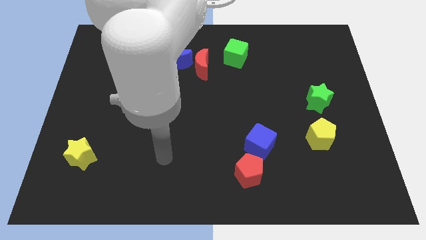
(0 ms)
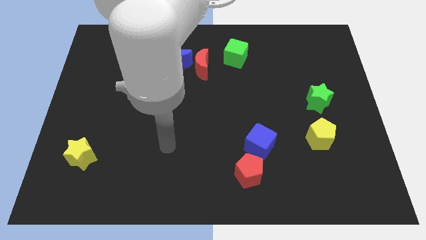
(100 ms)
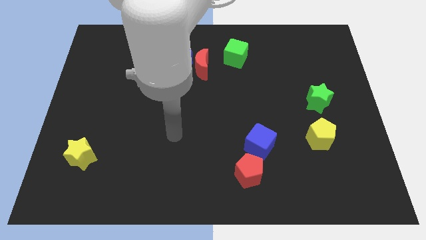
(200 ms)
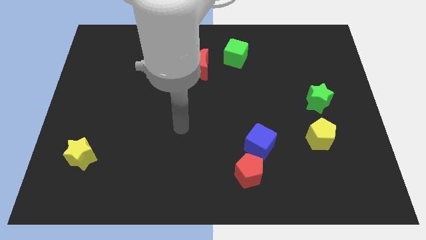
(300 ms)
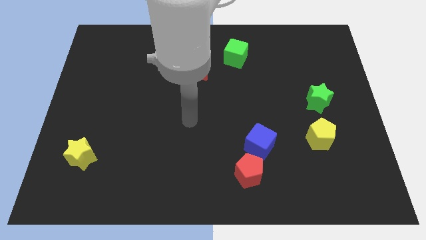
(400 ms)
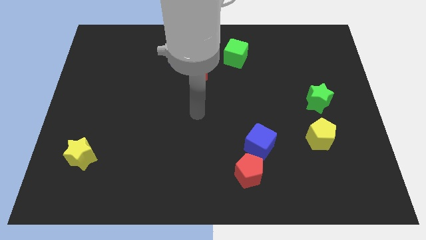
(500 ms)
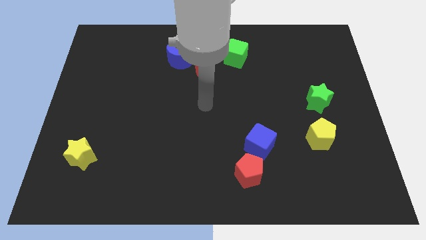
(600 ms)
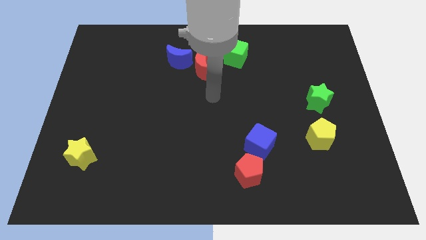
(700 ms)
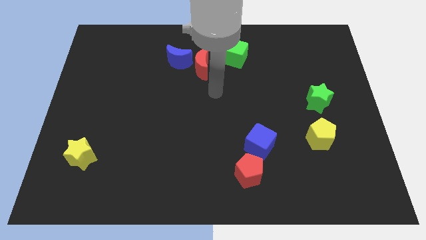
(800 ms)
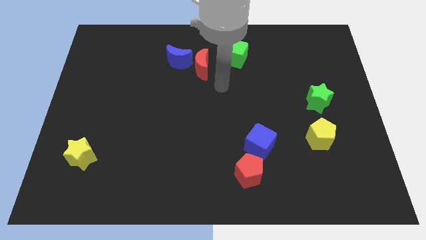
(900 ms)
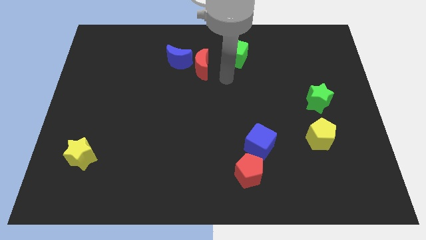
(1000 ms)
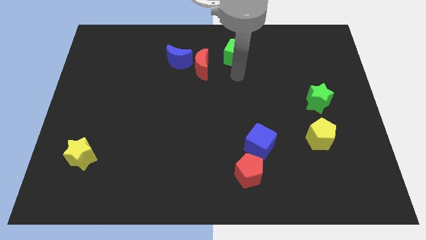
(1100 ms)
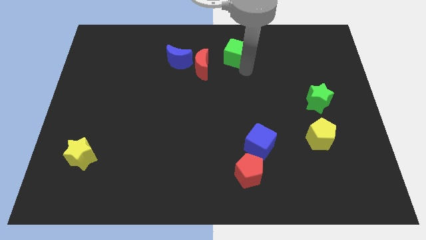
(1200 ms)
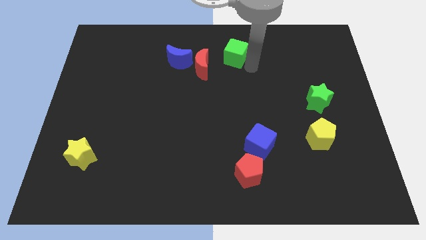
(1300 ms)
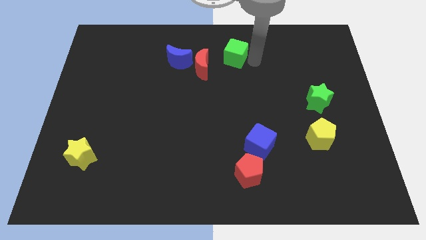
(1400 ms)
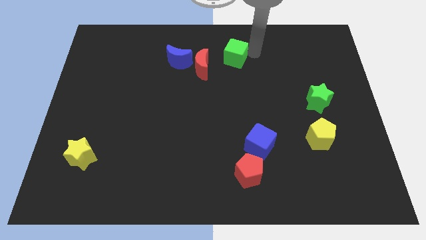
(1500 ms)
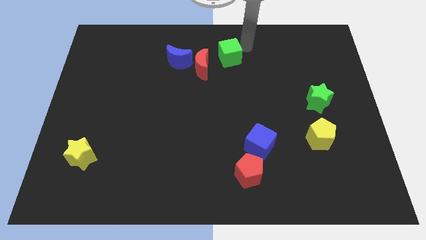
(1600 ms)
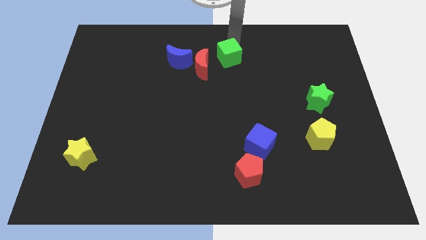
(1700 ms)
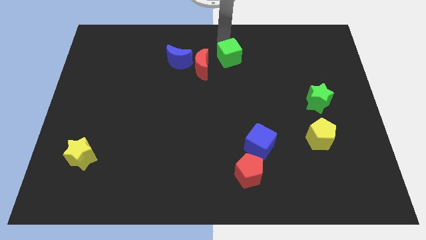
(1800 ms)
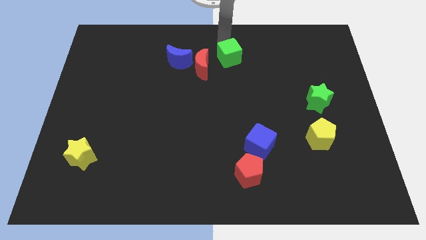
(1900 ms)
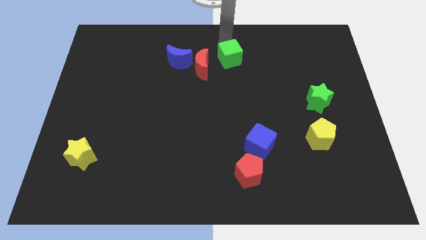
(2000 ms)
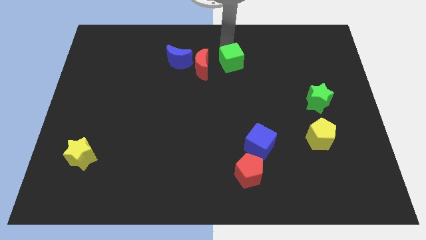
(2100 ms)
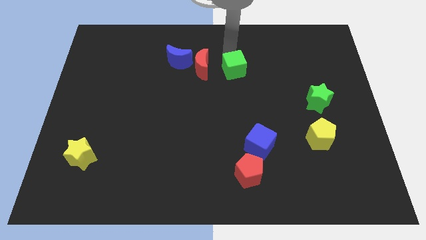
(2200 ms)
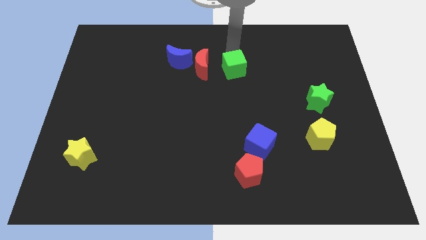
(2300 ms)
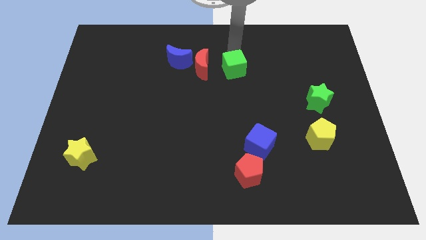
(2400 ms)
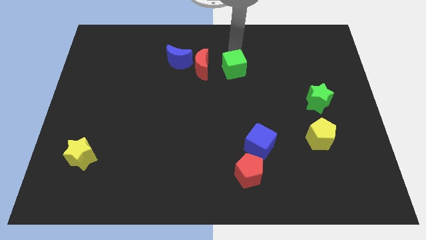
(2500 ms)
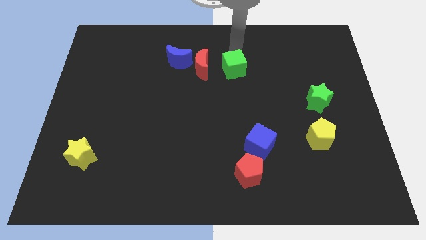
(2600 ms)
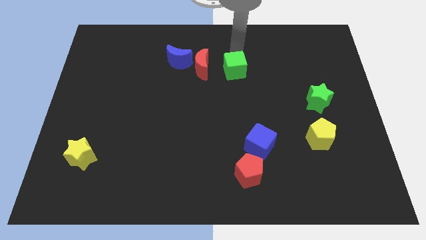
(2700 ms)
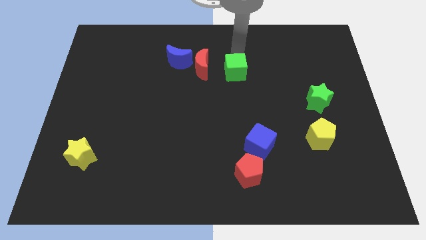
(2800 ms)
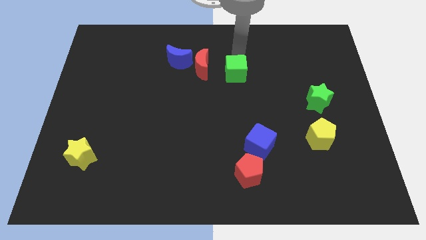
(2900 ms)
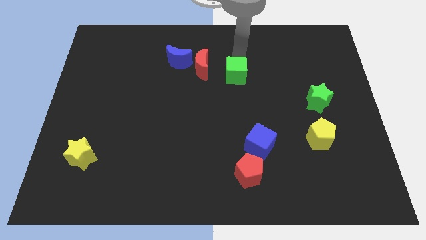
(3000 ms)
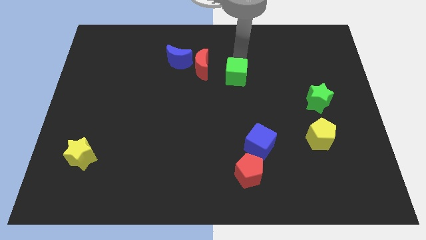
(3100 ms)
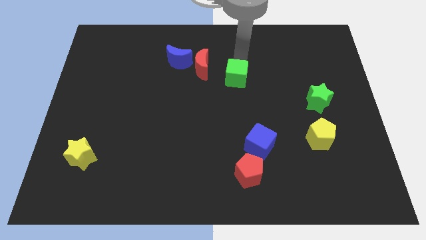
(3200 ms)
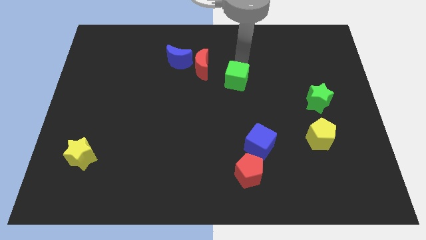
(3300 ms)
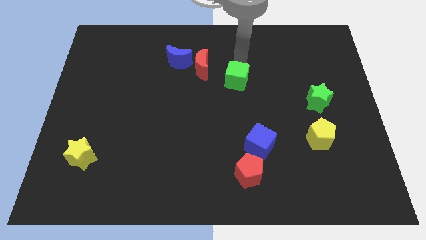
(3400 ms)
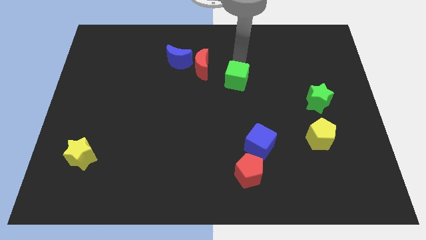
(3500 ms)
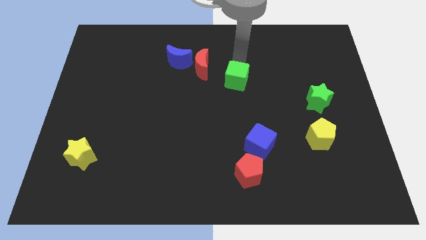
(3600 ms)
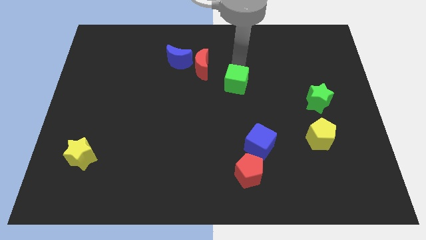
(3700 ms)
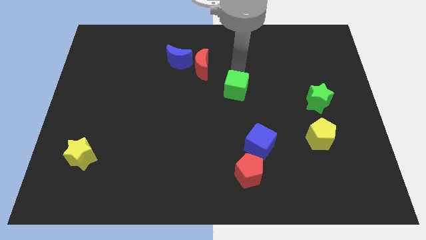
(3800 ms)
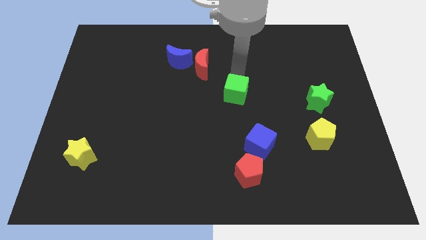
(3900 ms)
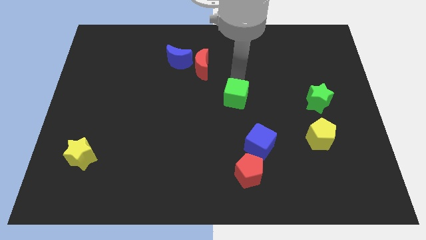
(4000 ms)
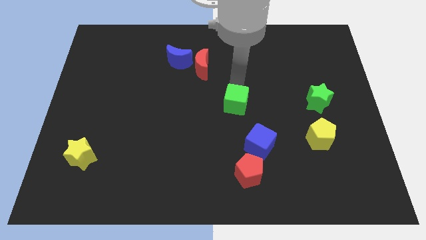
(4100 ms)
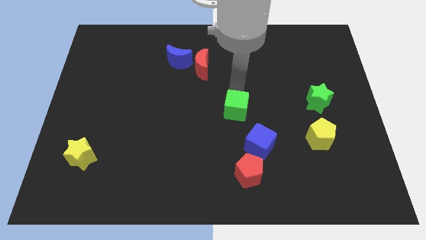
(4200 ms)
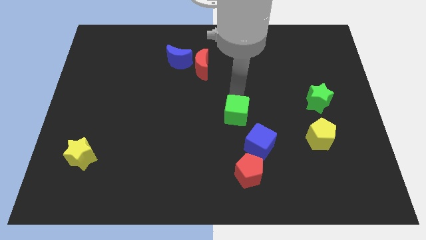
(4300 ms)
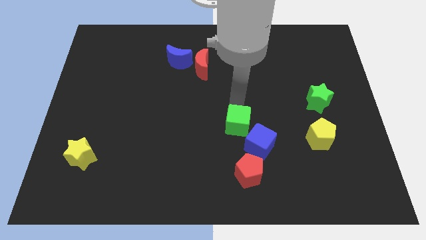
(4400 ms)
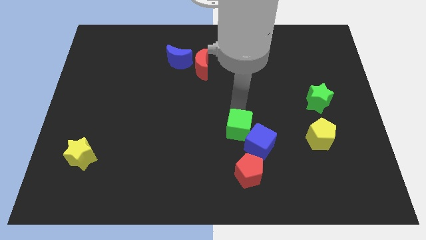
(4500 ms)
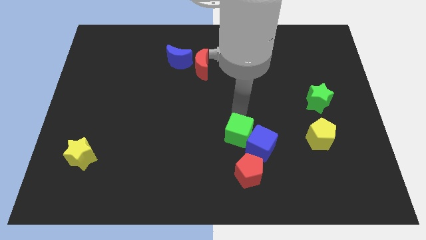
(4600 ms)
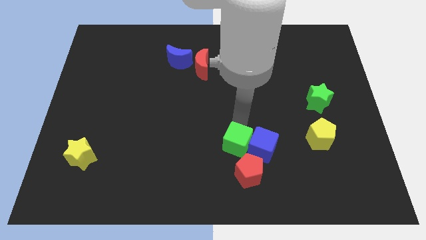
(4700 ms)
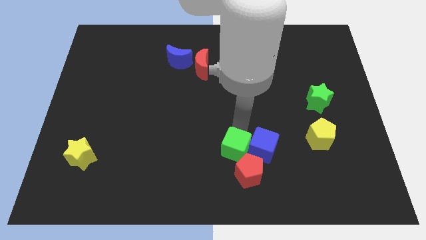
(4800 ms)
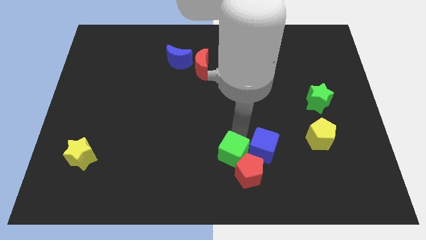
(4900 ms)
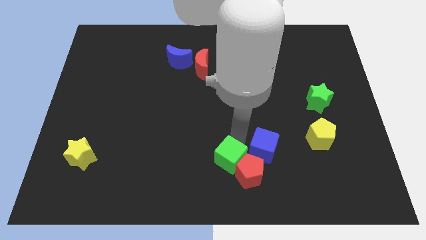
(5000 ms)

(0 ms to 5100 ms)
move the green cube to the bottom

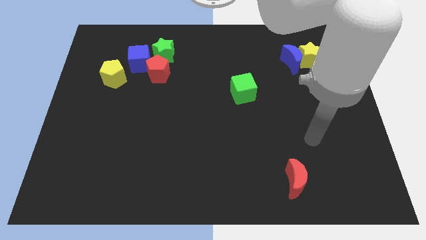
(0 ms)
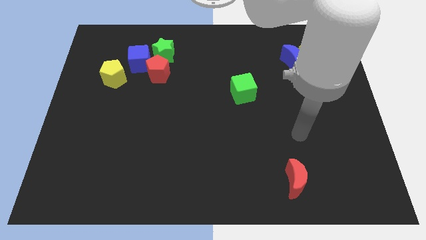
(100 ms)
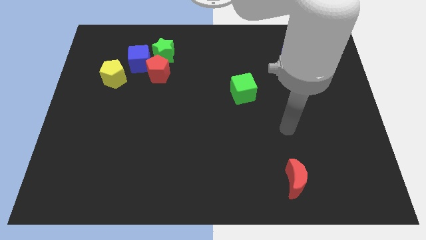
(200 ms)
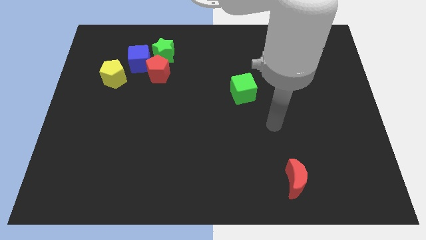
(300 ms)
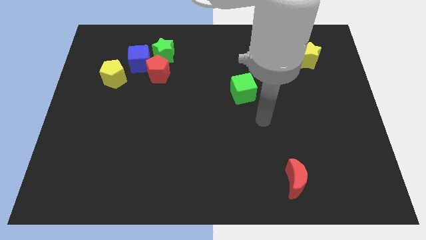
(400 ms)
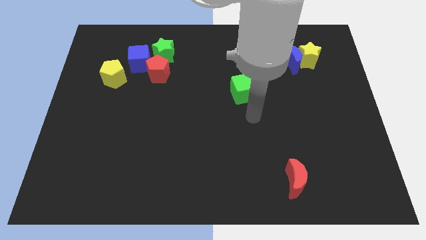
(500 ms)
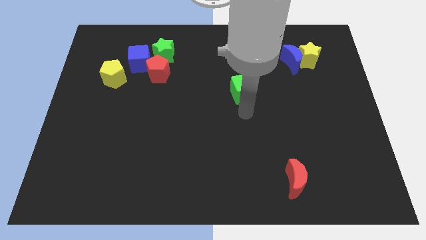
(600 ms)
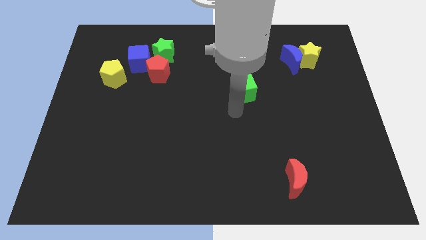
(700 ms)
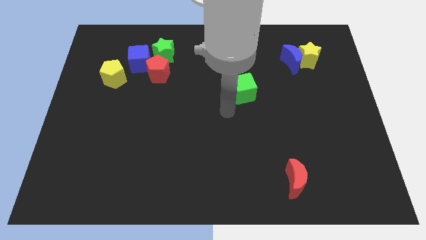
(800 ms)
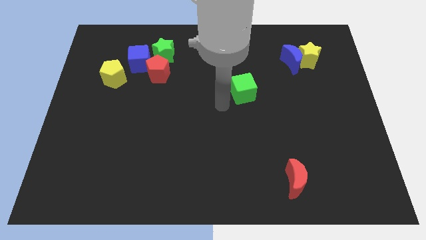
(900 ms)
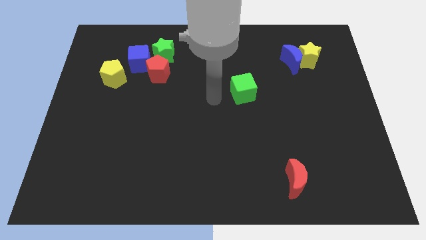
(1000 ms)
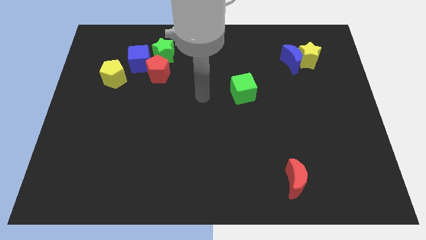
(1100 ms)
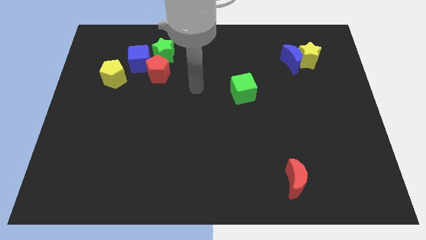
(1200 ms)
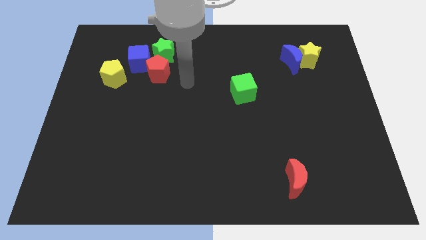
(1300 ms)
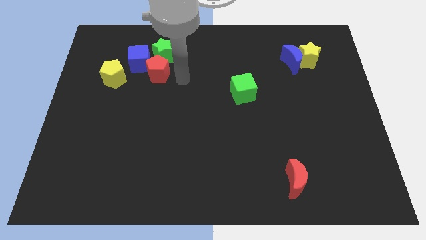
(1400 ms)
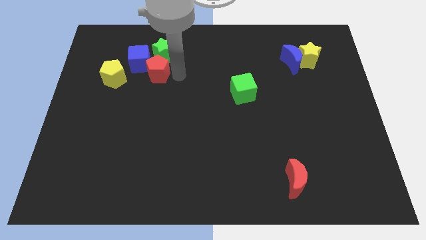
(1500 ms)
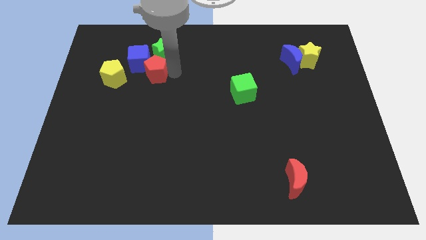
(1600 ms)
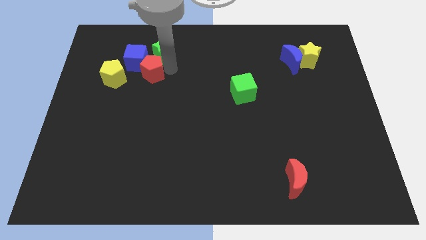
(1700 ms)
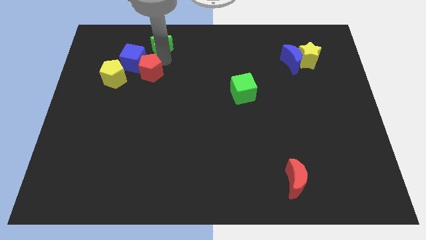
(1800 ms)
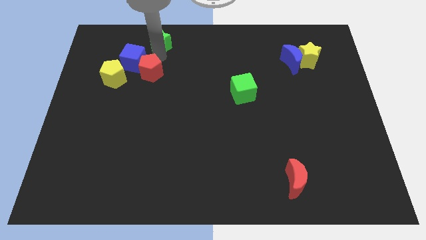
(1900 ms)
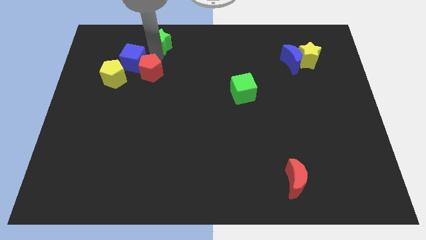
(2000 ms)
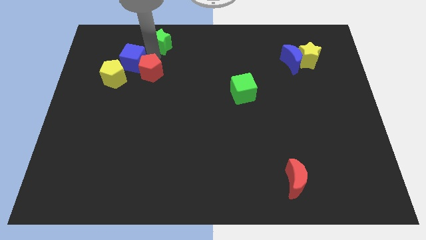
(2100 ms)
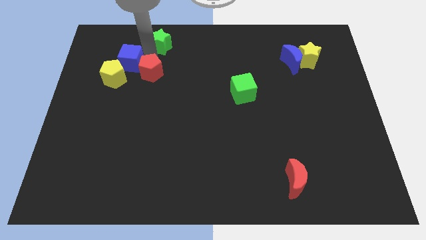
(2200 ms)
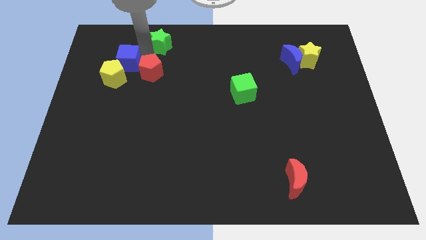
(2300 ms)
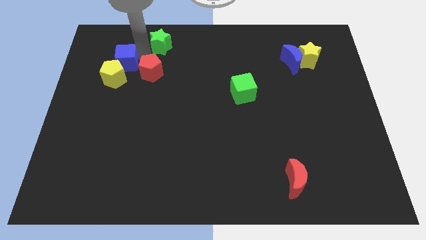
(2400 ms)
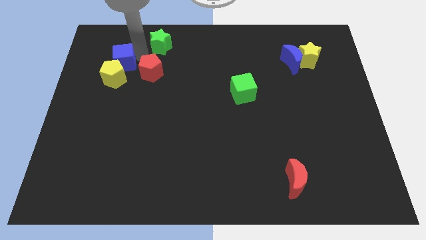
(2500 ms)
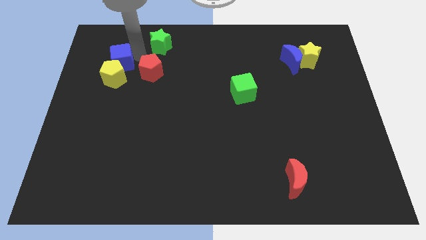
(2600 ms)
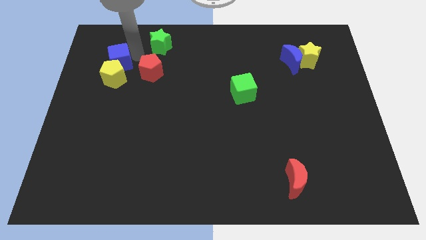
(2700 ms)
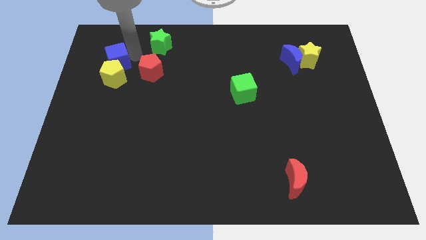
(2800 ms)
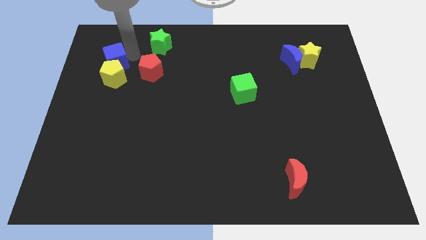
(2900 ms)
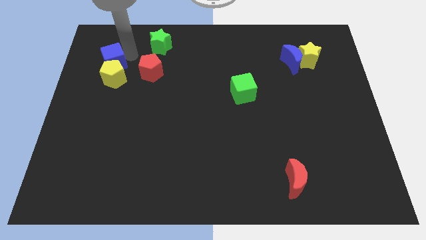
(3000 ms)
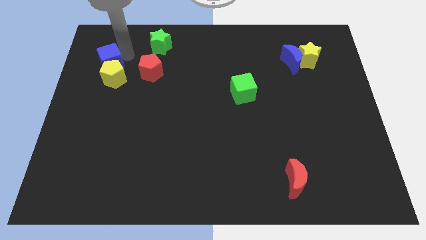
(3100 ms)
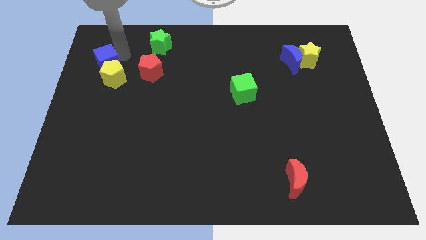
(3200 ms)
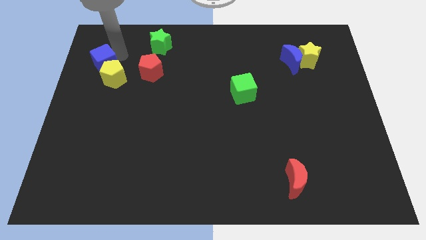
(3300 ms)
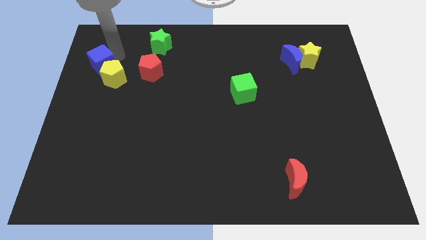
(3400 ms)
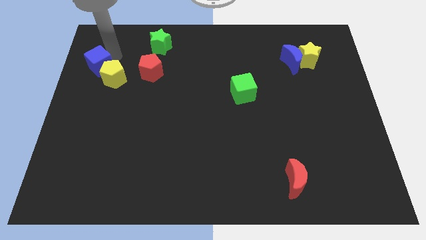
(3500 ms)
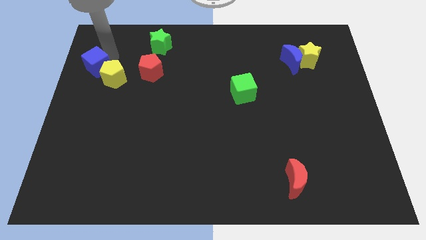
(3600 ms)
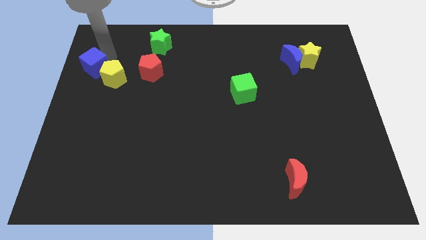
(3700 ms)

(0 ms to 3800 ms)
move the blue cube to the center left
